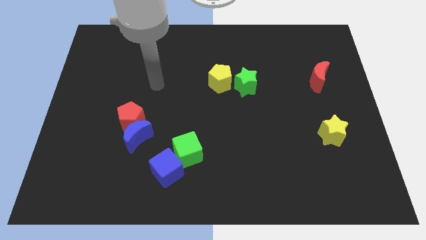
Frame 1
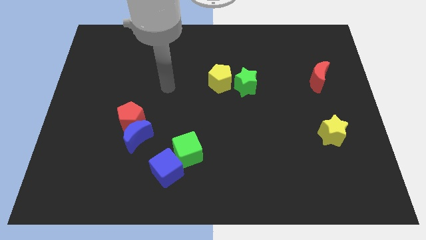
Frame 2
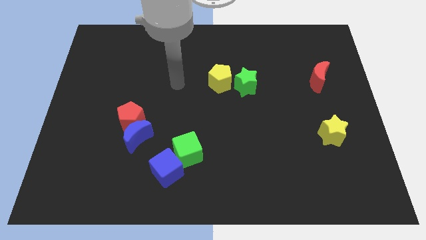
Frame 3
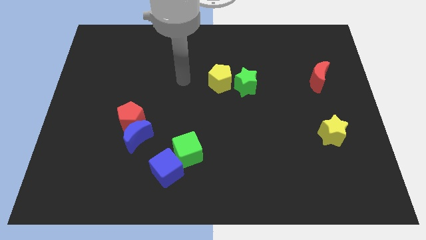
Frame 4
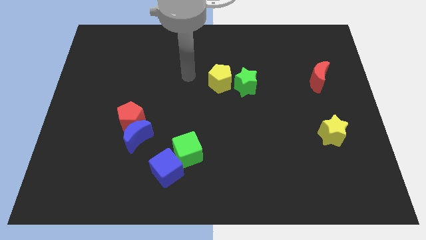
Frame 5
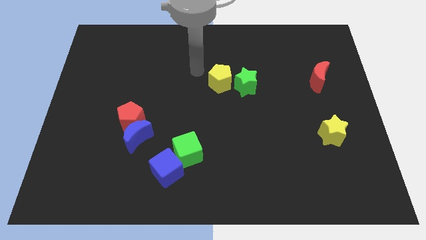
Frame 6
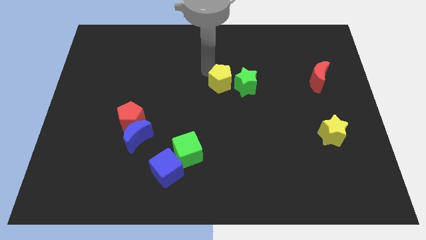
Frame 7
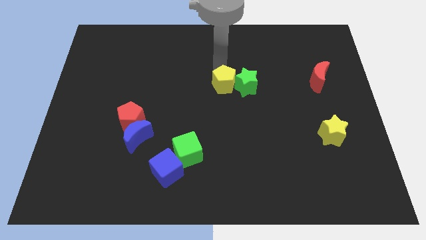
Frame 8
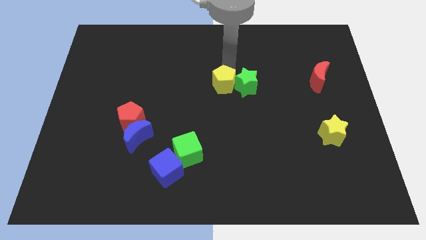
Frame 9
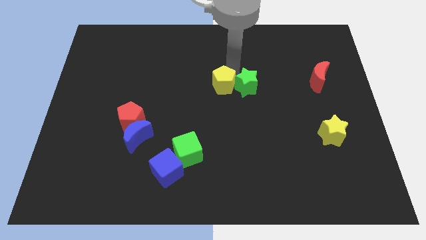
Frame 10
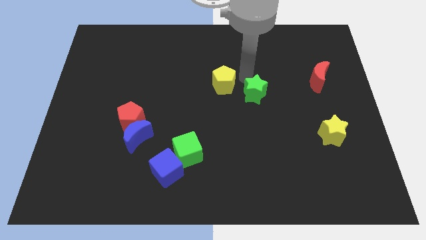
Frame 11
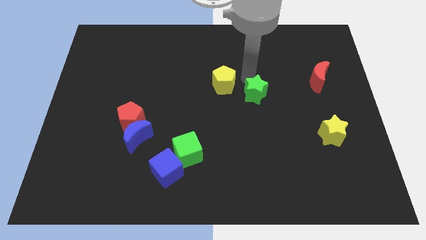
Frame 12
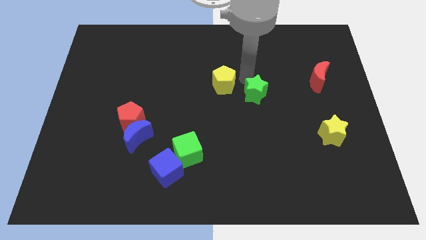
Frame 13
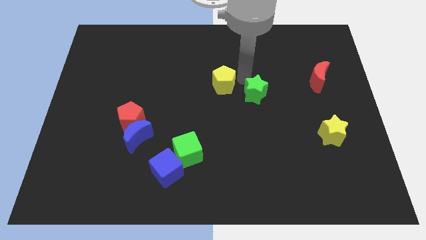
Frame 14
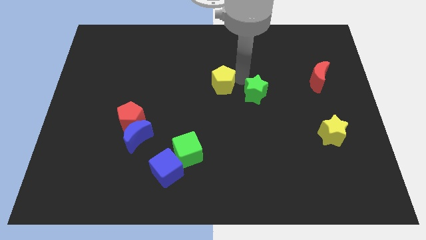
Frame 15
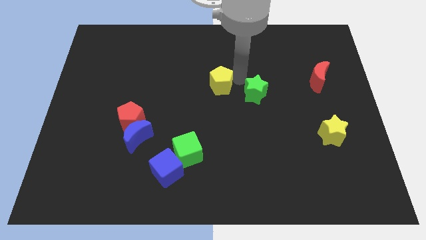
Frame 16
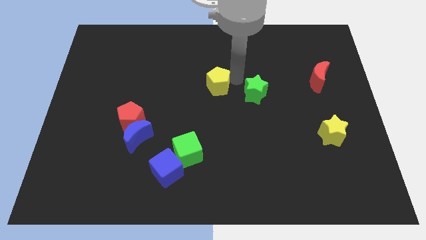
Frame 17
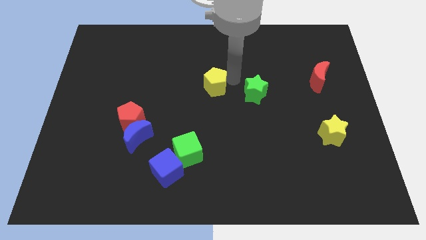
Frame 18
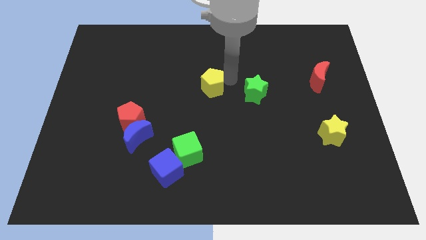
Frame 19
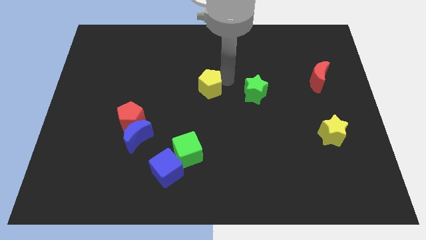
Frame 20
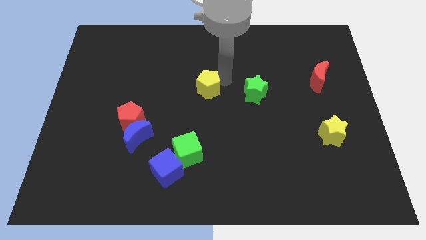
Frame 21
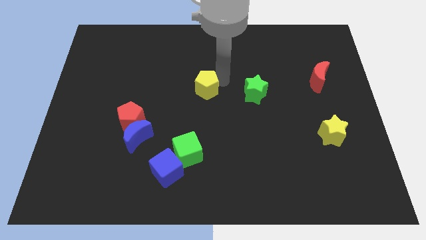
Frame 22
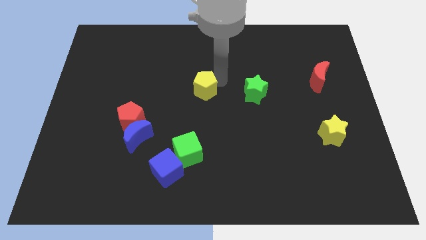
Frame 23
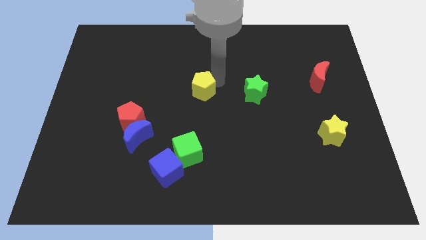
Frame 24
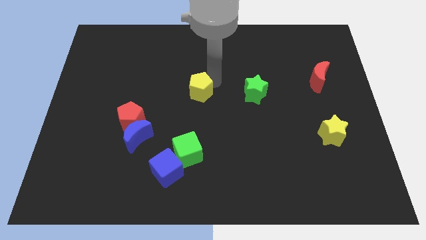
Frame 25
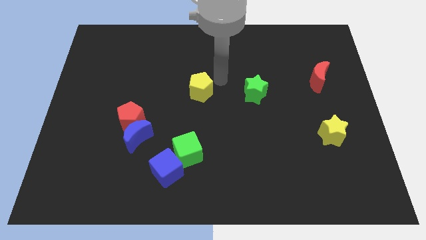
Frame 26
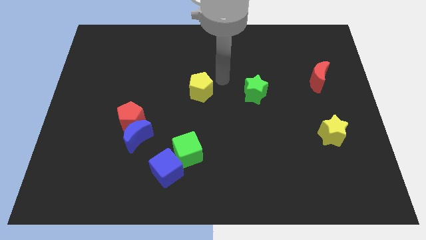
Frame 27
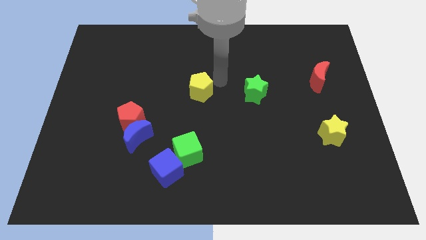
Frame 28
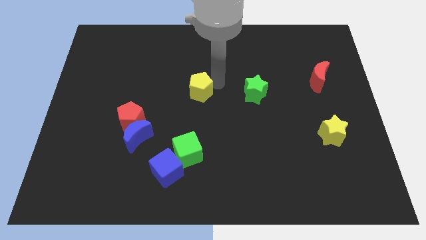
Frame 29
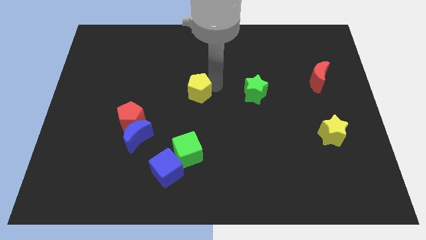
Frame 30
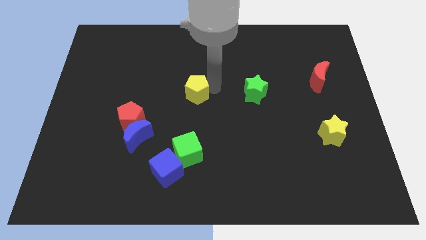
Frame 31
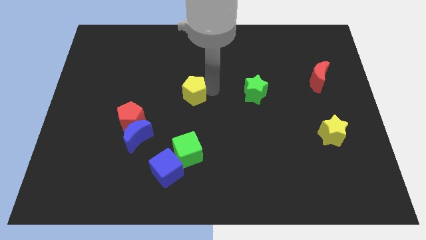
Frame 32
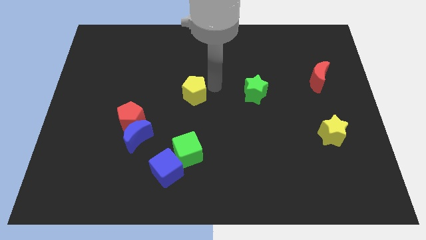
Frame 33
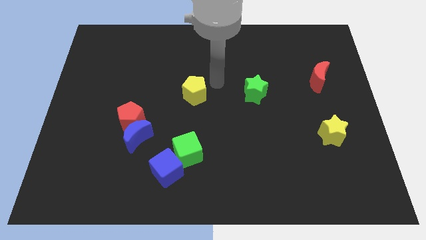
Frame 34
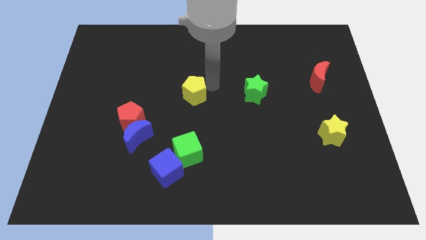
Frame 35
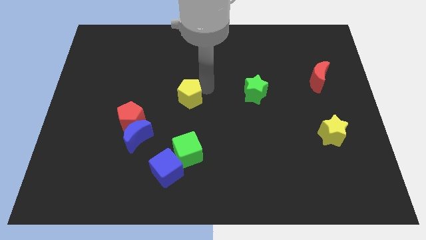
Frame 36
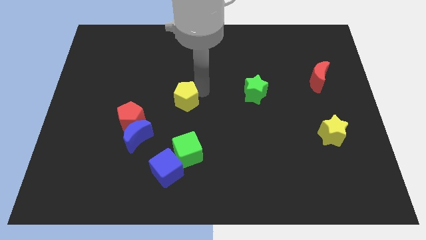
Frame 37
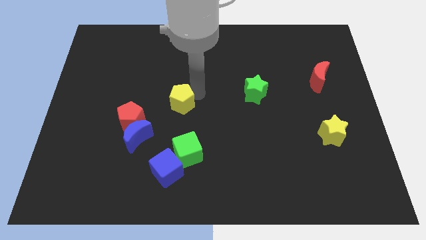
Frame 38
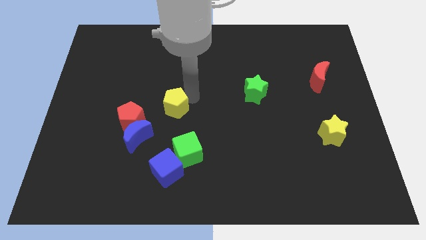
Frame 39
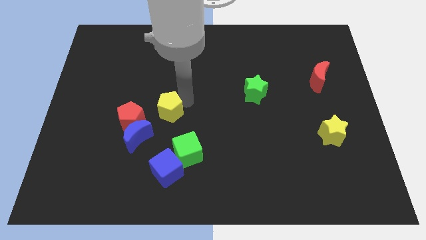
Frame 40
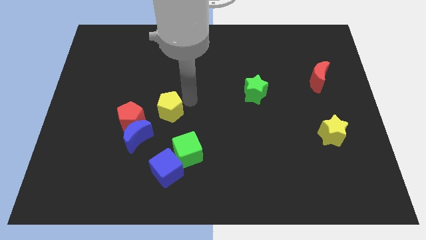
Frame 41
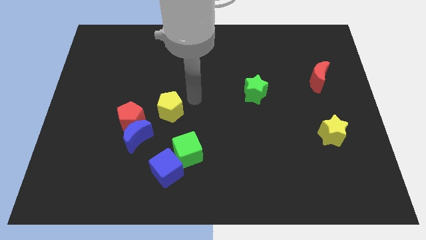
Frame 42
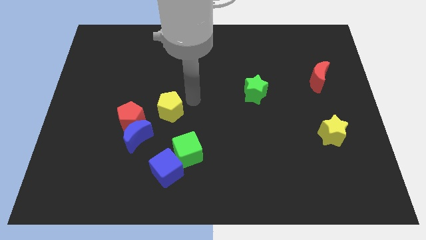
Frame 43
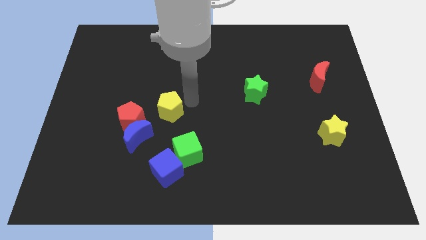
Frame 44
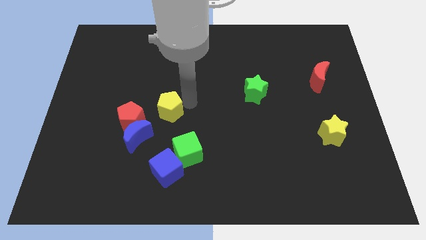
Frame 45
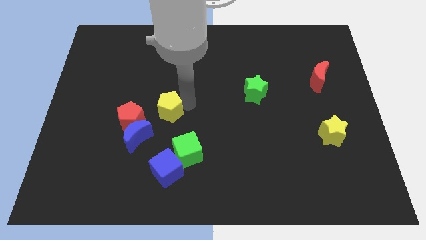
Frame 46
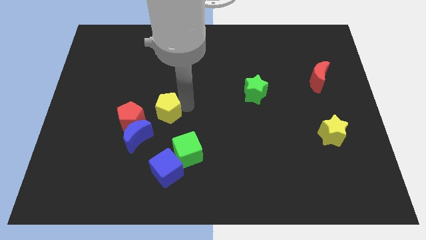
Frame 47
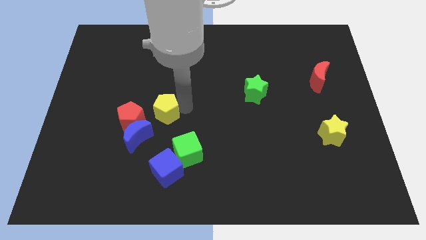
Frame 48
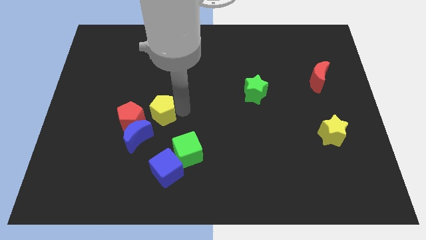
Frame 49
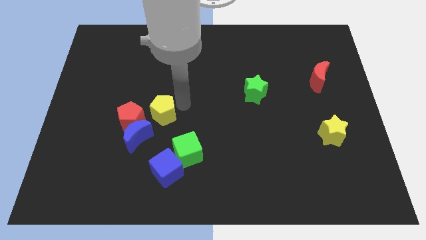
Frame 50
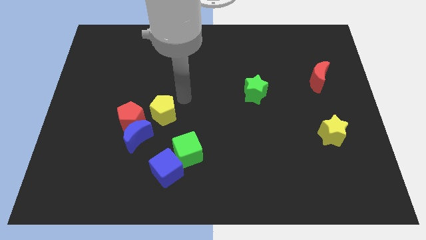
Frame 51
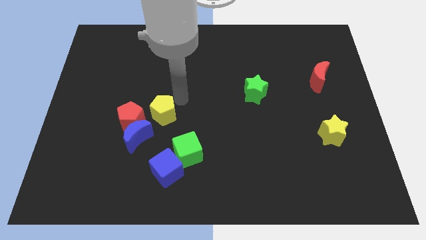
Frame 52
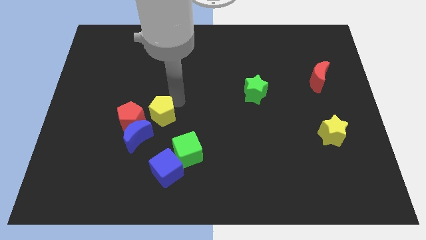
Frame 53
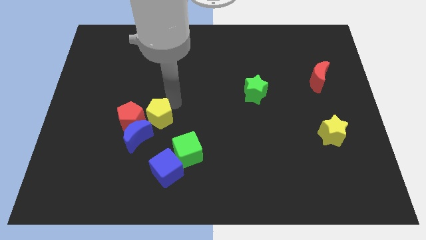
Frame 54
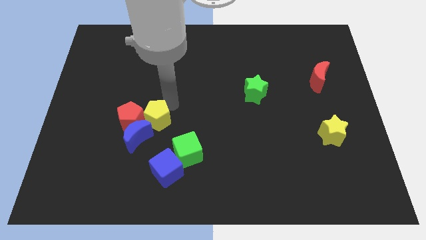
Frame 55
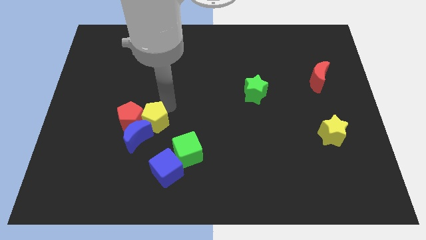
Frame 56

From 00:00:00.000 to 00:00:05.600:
move the yellow pentagon close to the blue moon

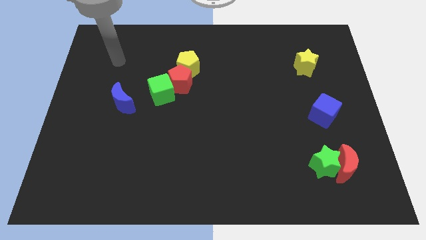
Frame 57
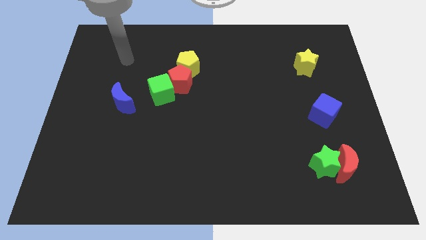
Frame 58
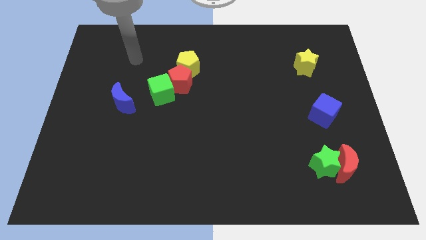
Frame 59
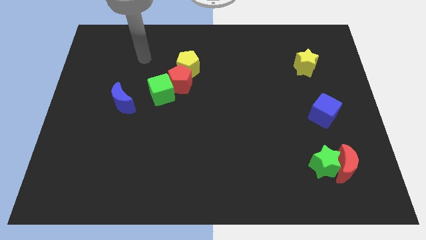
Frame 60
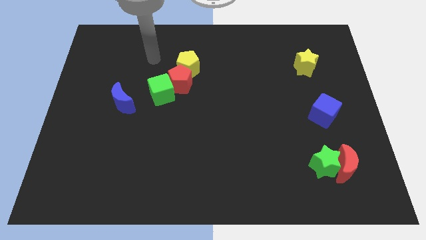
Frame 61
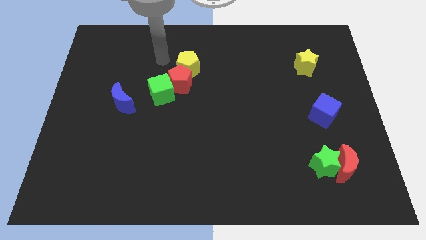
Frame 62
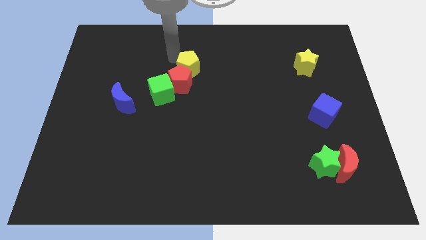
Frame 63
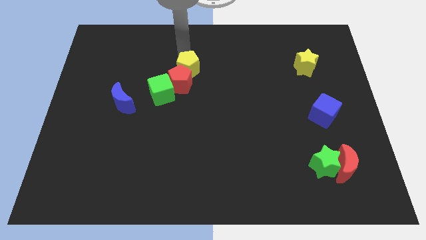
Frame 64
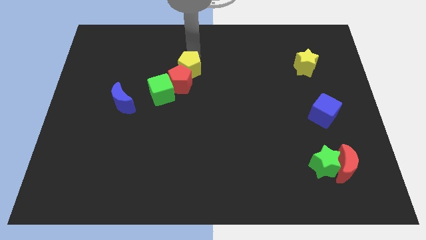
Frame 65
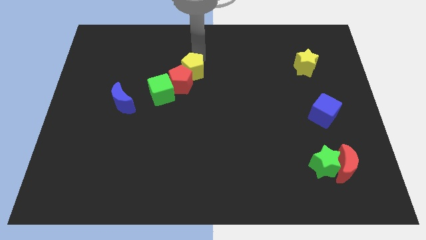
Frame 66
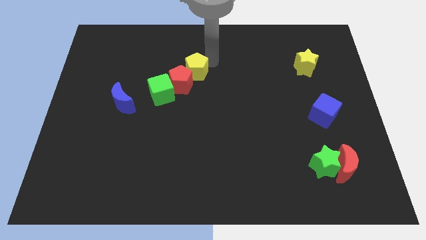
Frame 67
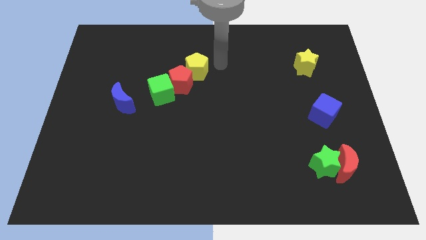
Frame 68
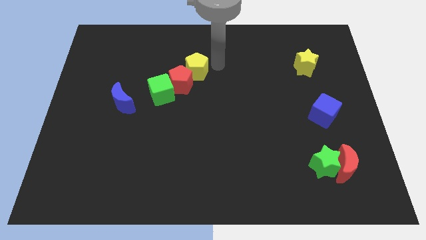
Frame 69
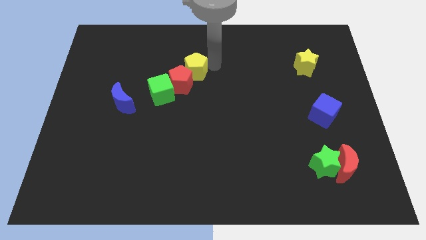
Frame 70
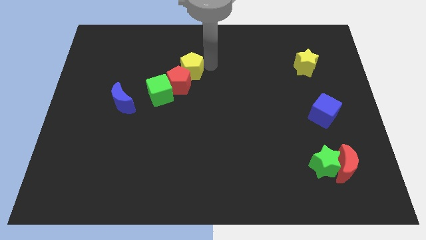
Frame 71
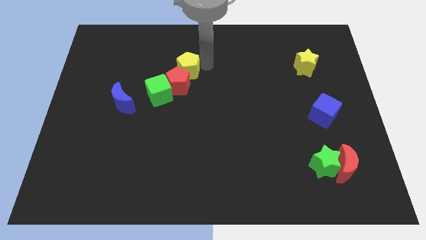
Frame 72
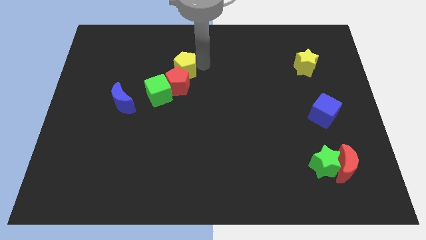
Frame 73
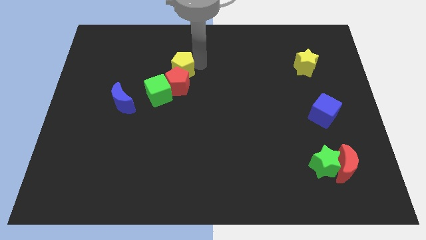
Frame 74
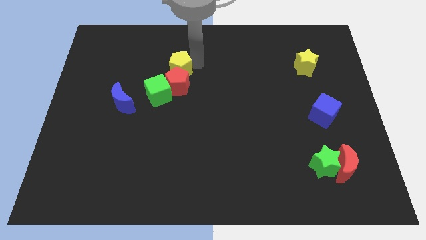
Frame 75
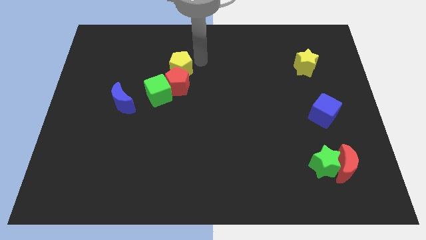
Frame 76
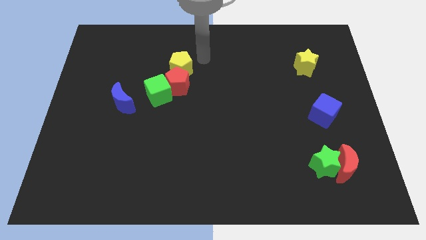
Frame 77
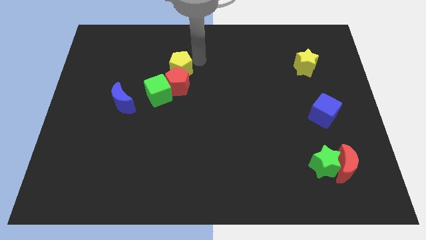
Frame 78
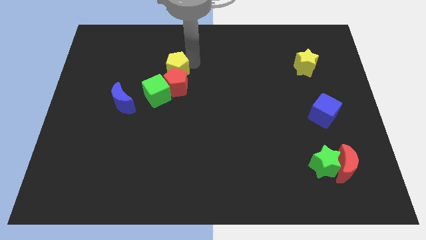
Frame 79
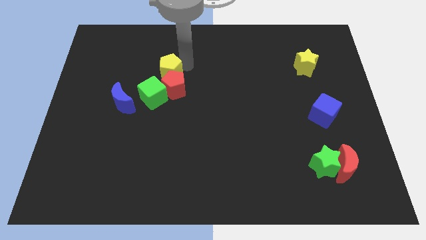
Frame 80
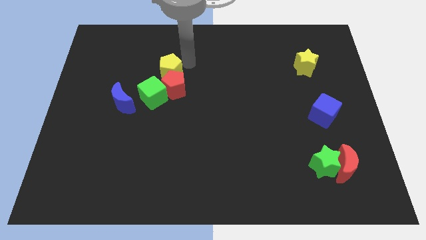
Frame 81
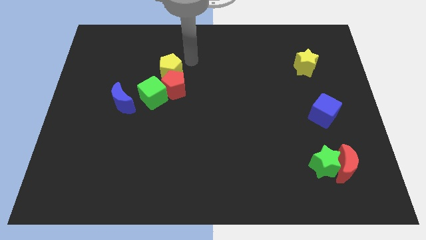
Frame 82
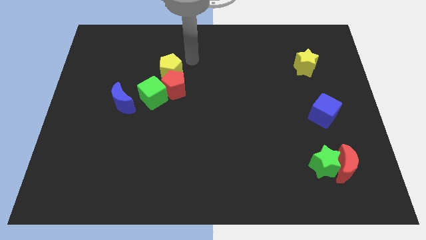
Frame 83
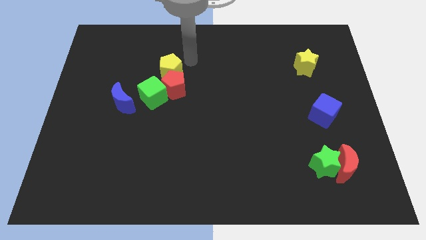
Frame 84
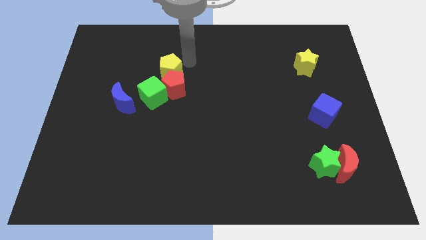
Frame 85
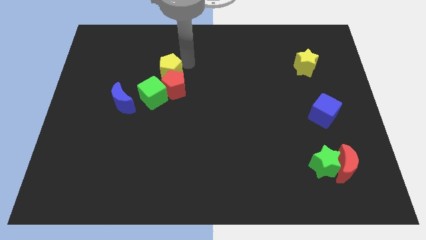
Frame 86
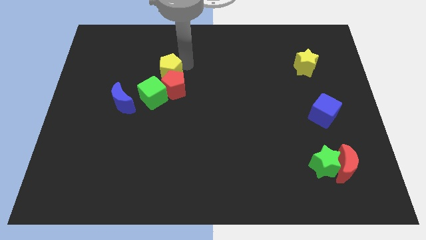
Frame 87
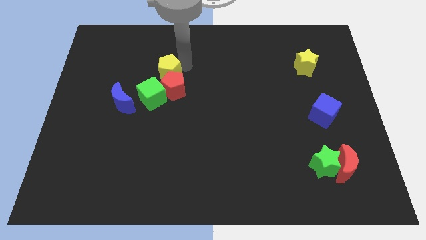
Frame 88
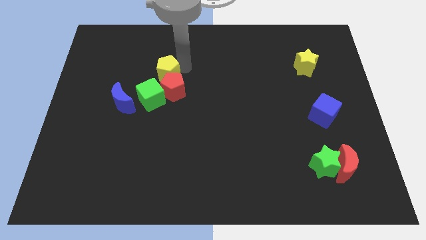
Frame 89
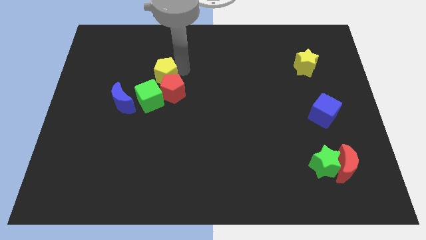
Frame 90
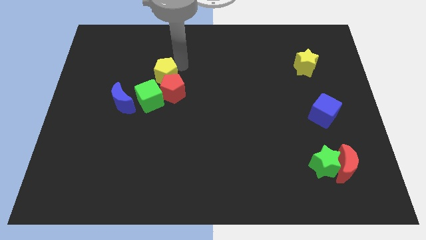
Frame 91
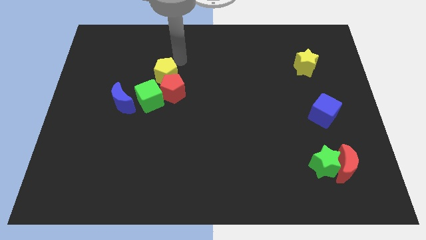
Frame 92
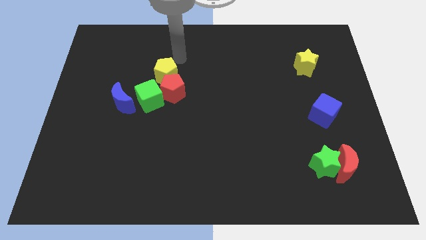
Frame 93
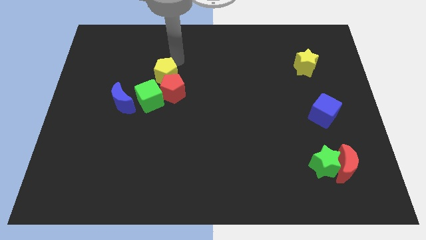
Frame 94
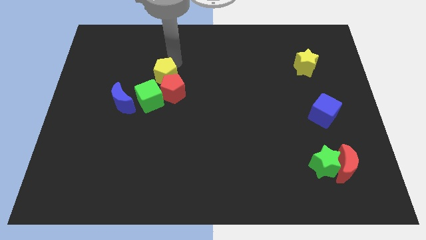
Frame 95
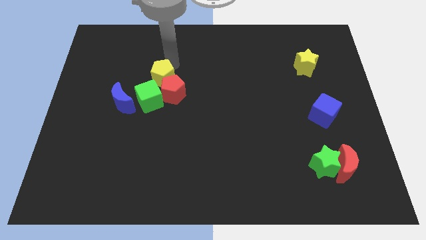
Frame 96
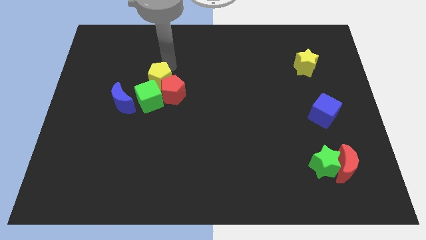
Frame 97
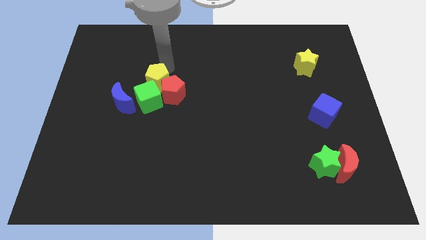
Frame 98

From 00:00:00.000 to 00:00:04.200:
push the yellow pentagon next to the green cube
